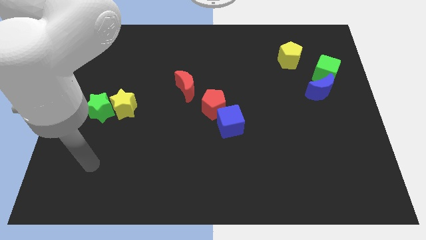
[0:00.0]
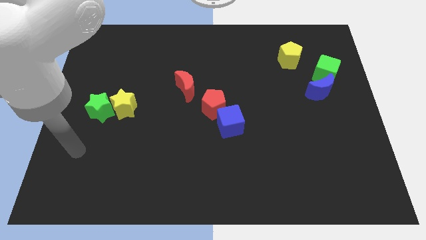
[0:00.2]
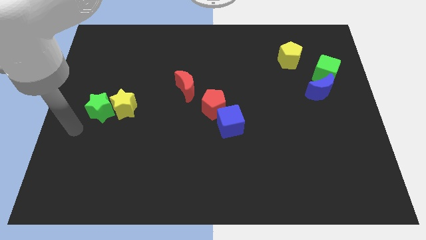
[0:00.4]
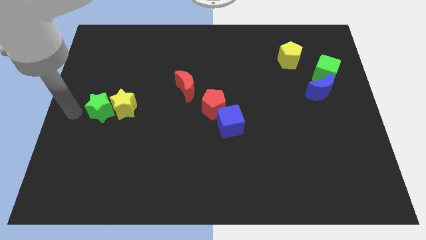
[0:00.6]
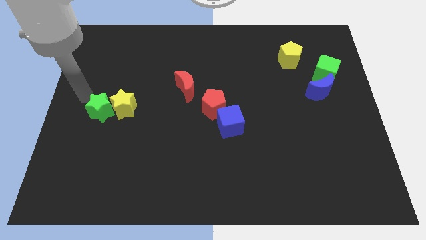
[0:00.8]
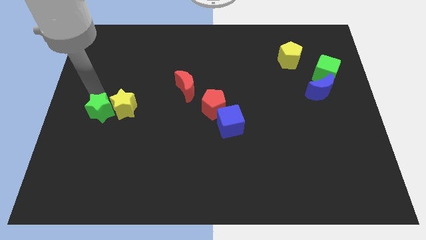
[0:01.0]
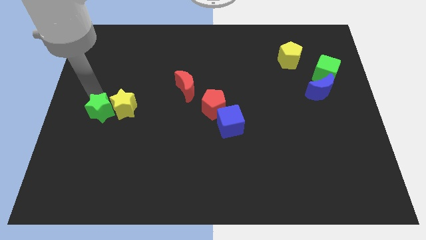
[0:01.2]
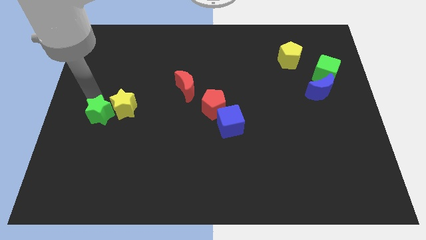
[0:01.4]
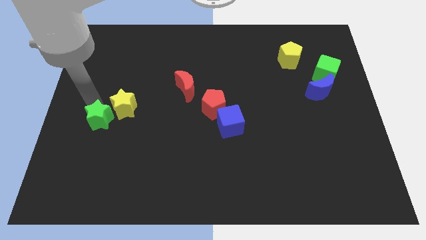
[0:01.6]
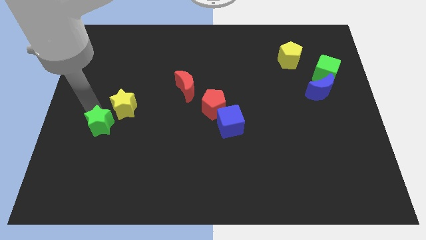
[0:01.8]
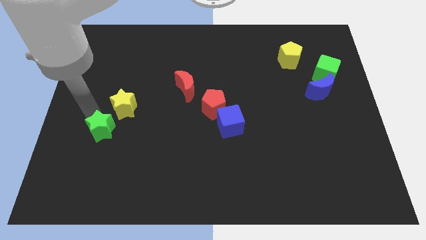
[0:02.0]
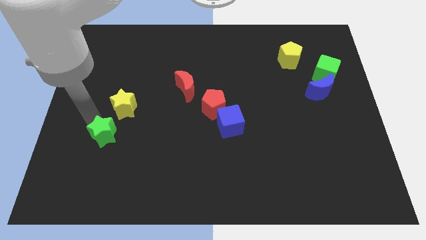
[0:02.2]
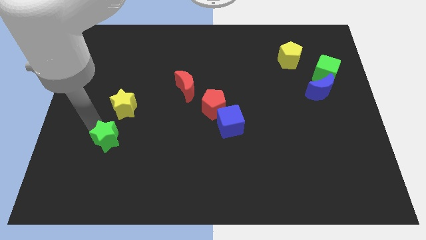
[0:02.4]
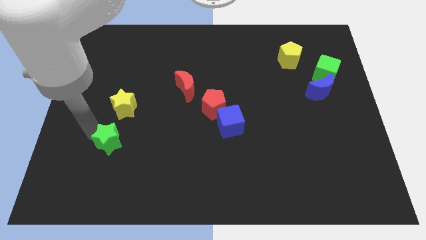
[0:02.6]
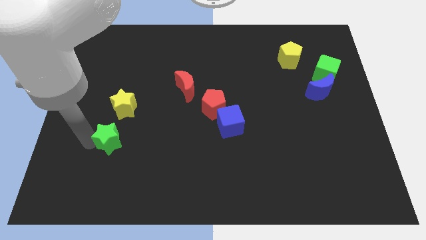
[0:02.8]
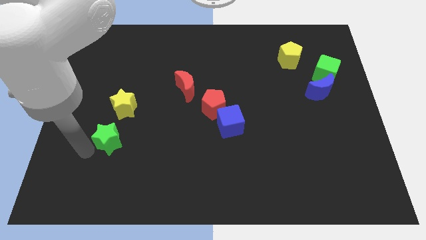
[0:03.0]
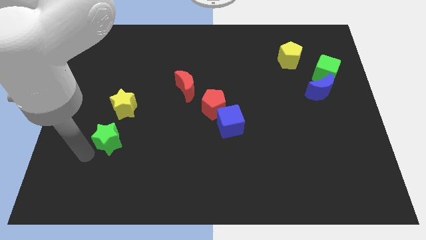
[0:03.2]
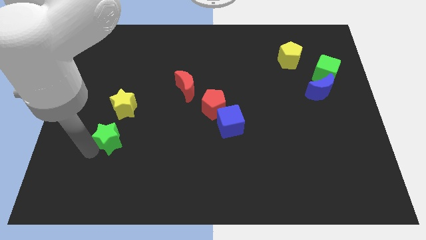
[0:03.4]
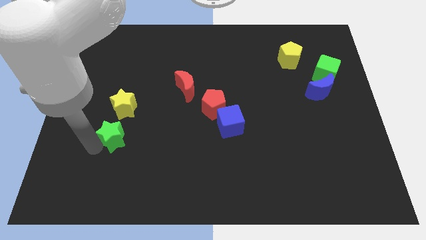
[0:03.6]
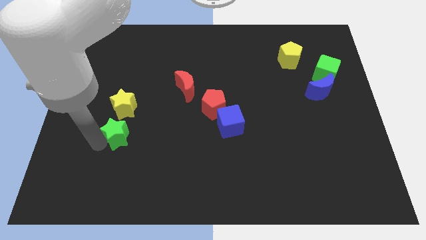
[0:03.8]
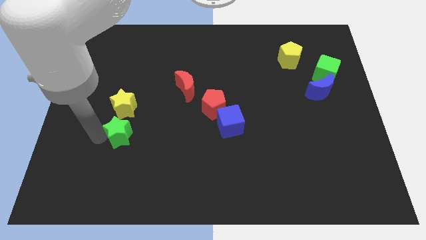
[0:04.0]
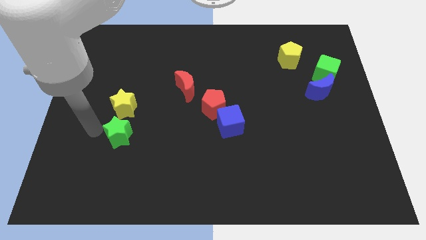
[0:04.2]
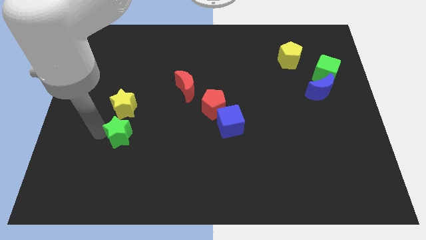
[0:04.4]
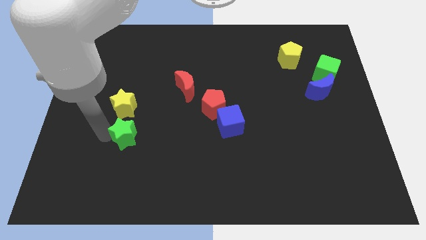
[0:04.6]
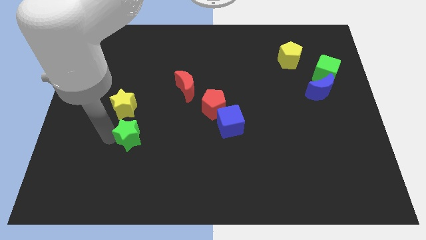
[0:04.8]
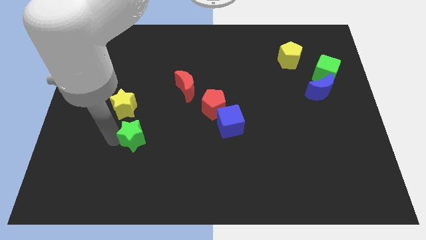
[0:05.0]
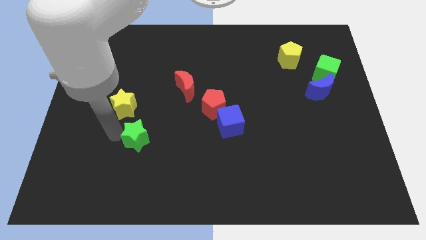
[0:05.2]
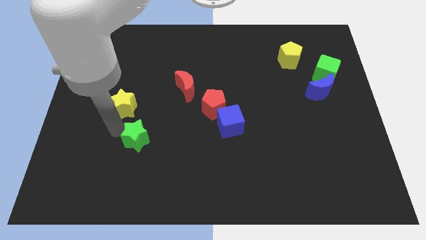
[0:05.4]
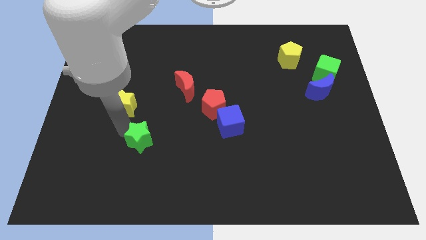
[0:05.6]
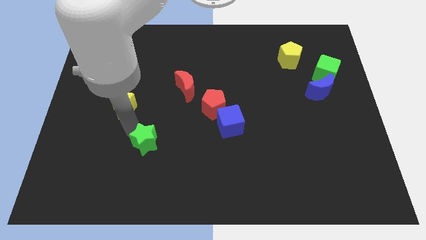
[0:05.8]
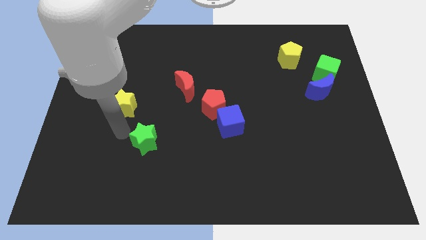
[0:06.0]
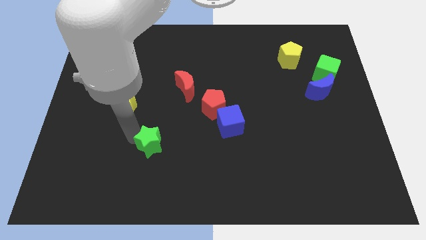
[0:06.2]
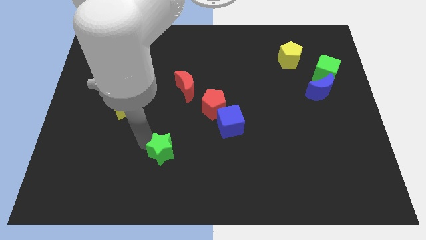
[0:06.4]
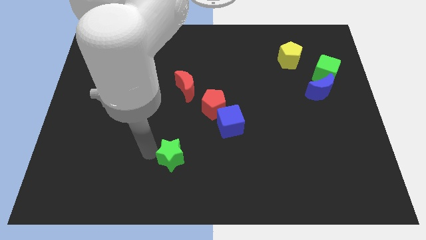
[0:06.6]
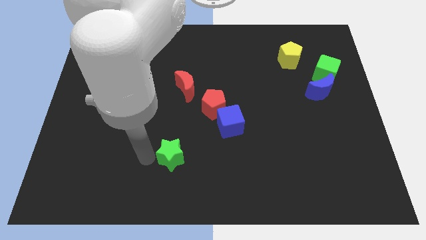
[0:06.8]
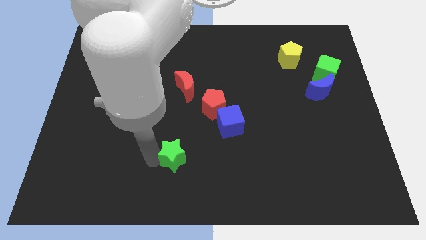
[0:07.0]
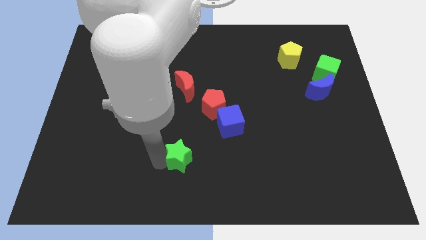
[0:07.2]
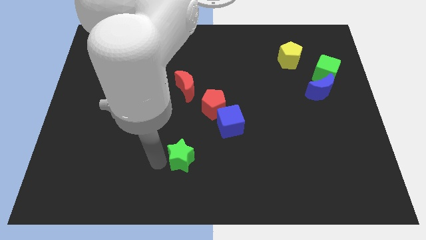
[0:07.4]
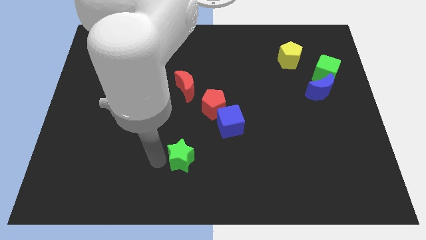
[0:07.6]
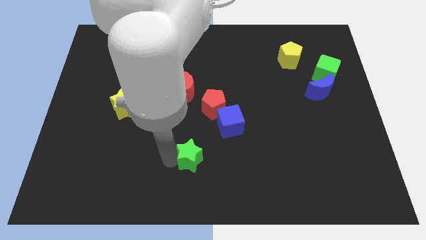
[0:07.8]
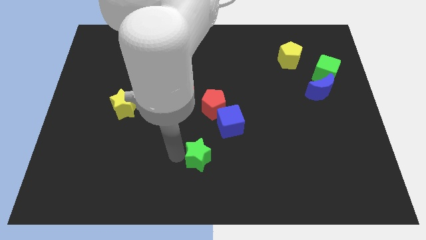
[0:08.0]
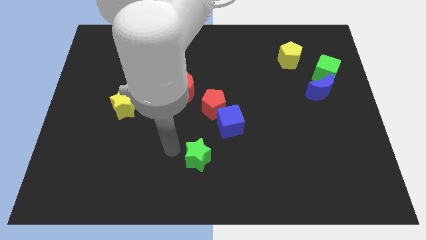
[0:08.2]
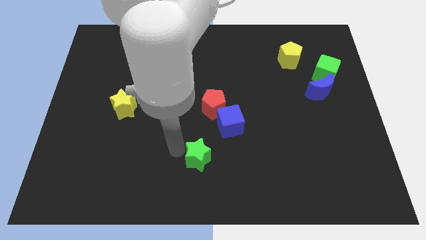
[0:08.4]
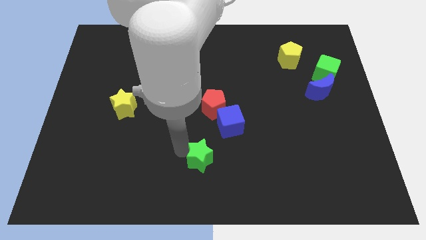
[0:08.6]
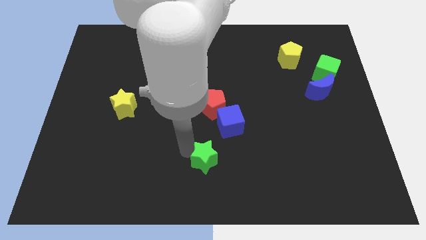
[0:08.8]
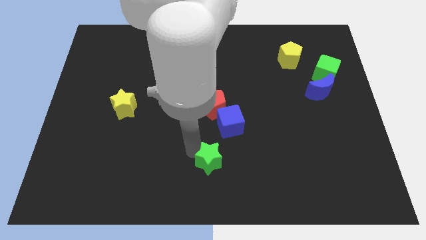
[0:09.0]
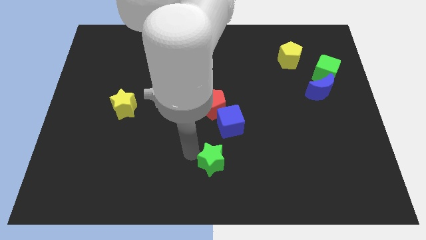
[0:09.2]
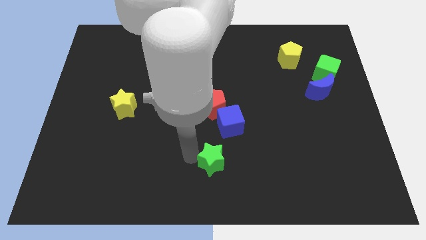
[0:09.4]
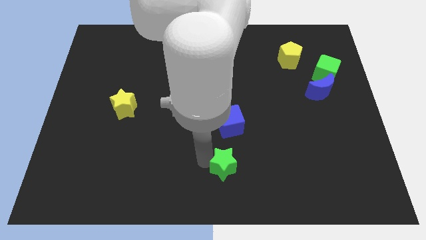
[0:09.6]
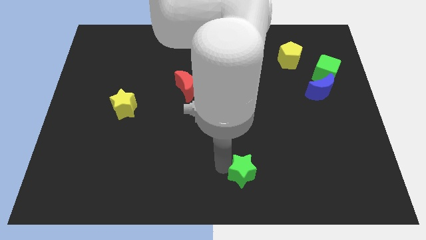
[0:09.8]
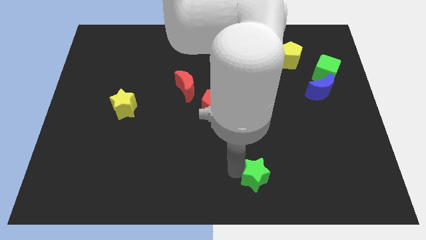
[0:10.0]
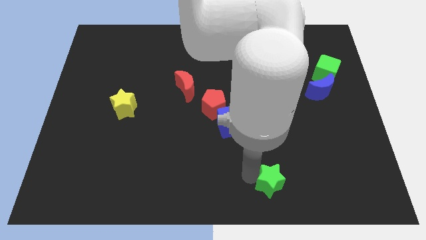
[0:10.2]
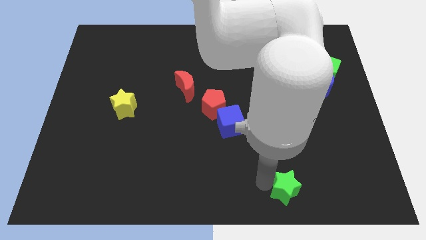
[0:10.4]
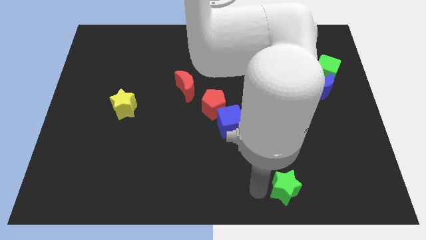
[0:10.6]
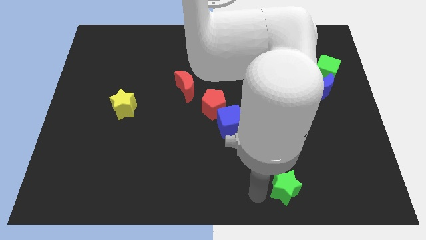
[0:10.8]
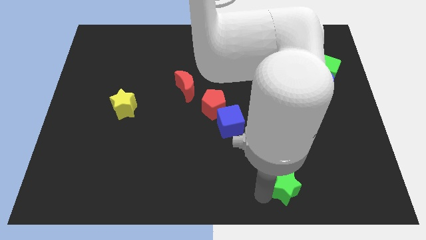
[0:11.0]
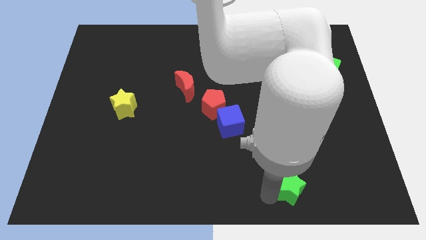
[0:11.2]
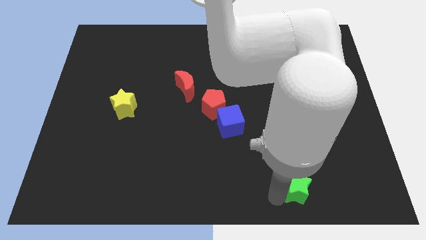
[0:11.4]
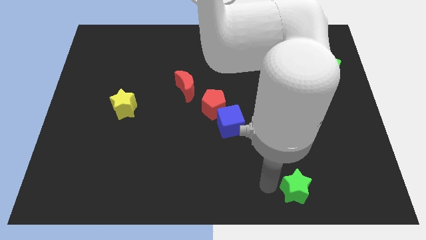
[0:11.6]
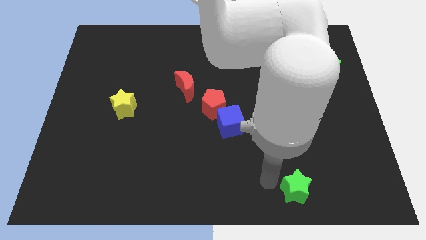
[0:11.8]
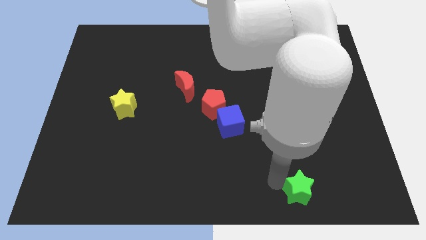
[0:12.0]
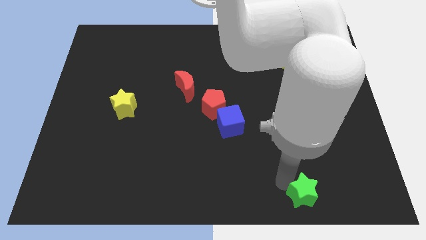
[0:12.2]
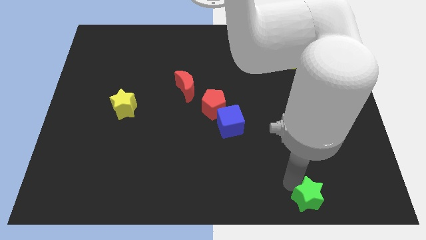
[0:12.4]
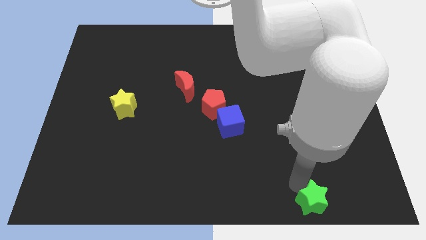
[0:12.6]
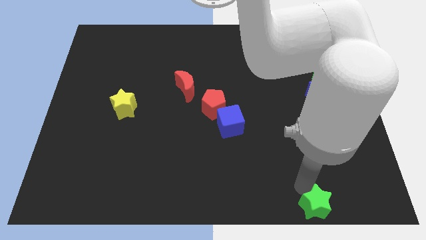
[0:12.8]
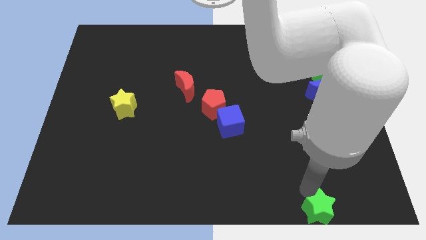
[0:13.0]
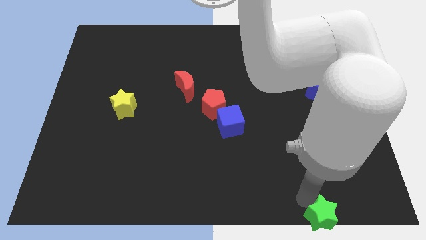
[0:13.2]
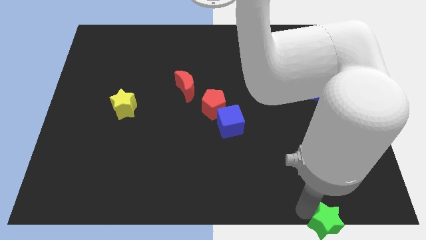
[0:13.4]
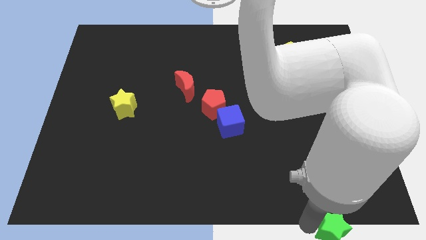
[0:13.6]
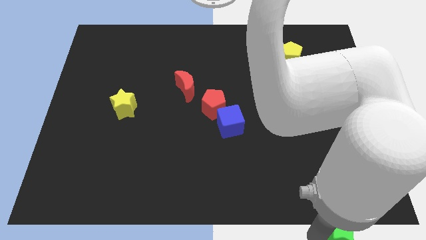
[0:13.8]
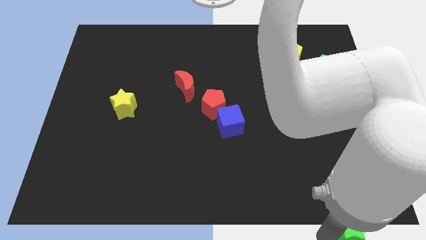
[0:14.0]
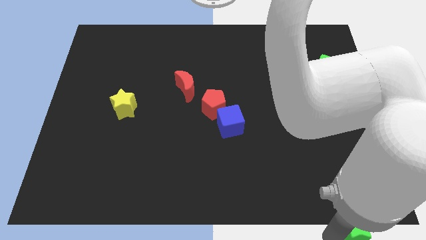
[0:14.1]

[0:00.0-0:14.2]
put the green star to the bottom right of the board

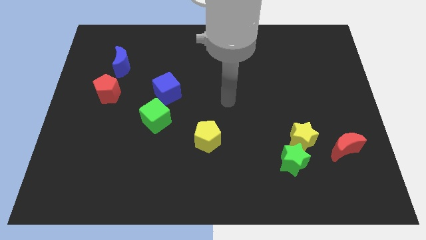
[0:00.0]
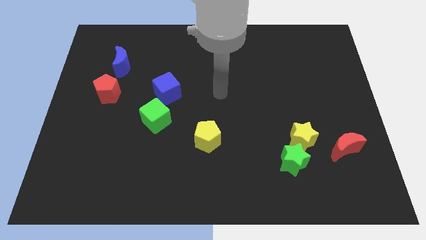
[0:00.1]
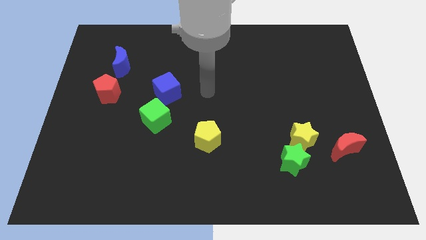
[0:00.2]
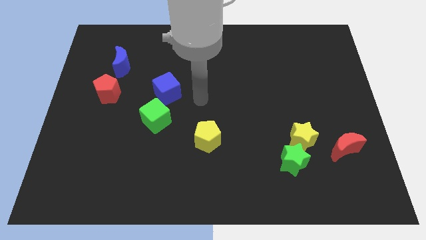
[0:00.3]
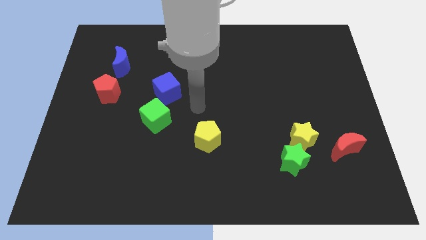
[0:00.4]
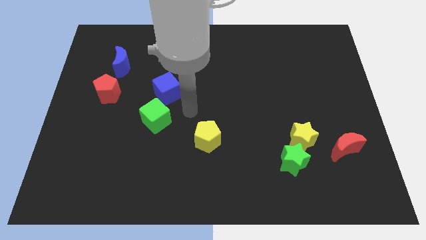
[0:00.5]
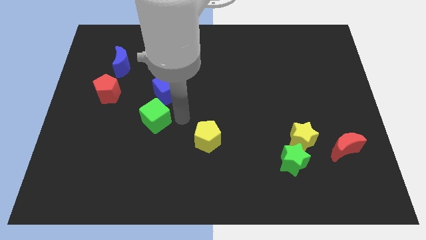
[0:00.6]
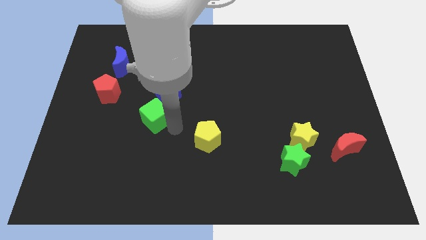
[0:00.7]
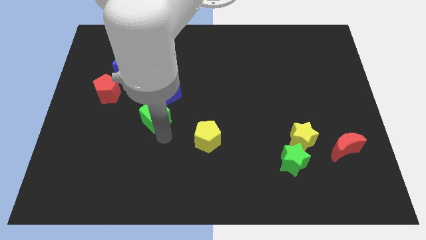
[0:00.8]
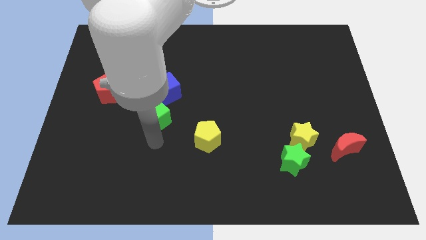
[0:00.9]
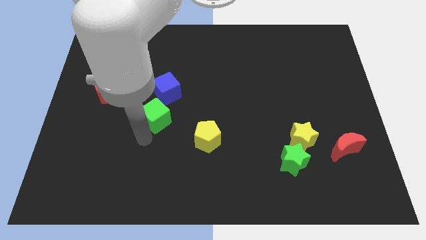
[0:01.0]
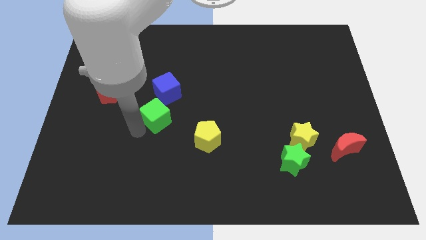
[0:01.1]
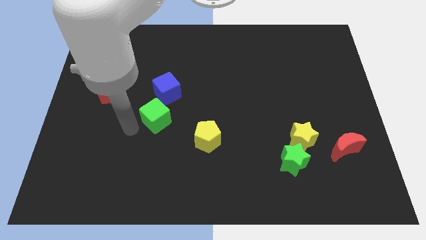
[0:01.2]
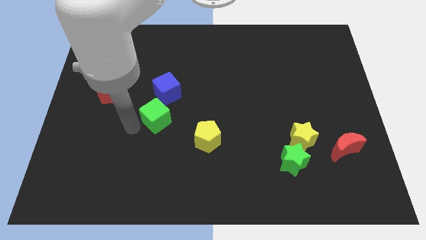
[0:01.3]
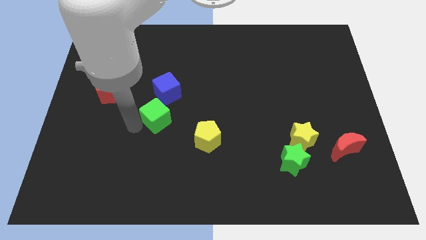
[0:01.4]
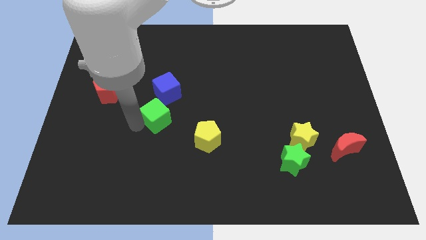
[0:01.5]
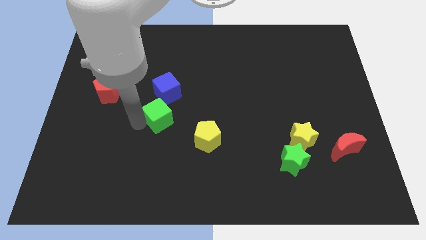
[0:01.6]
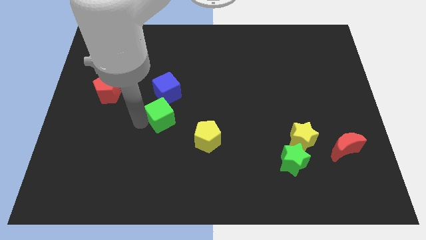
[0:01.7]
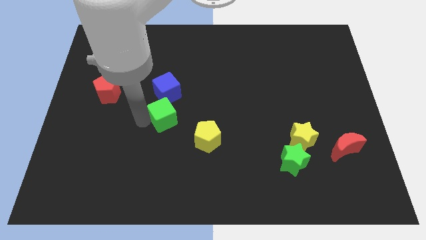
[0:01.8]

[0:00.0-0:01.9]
push the green cube to the center of the board
